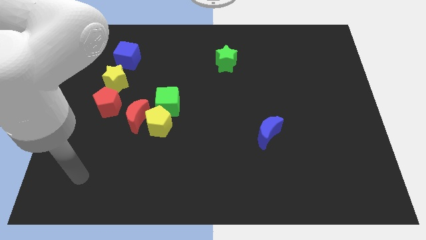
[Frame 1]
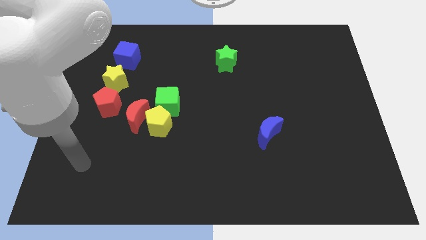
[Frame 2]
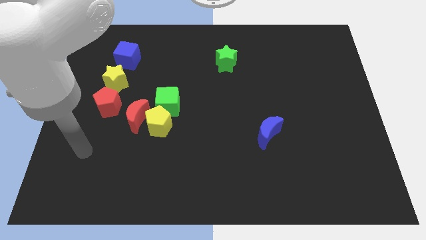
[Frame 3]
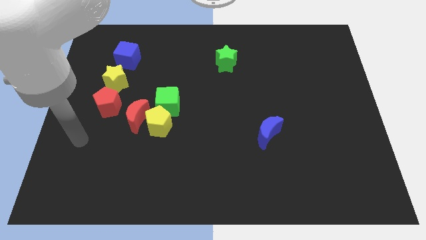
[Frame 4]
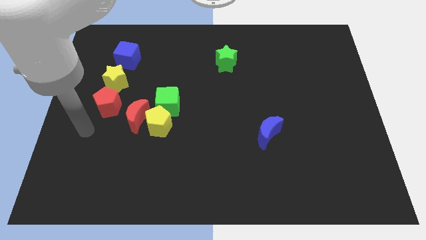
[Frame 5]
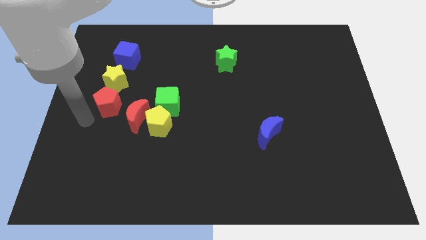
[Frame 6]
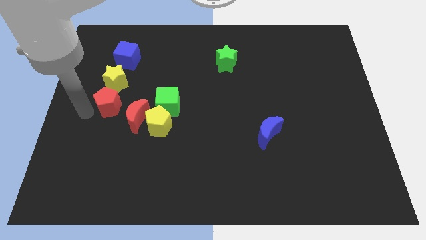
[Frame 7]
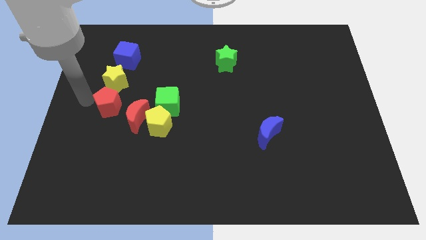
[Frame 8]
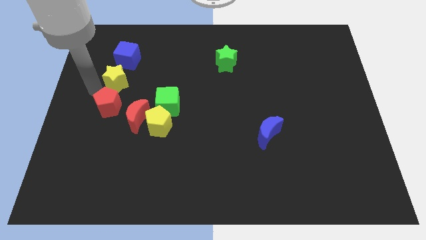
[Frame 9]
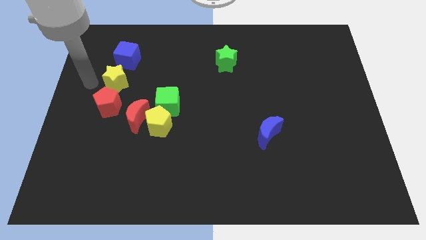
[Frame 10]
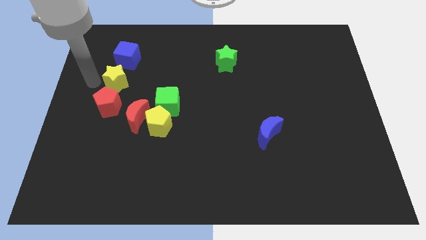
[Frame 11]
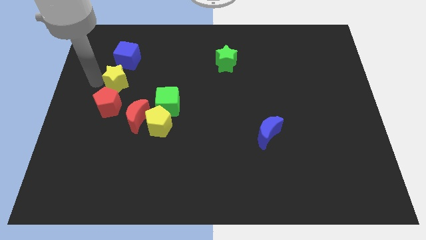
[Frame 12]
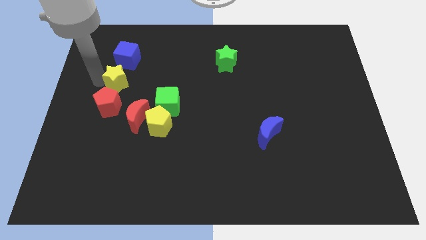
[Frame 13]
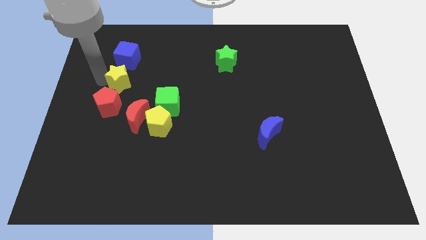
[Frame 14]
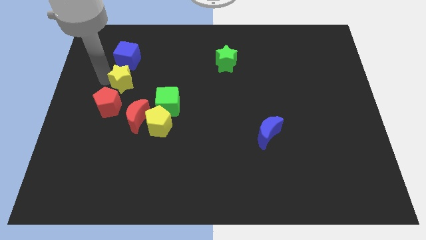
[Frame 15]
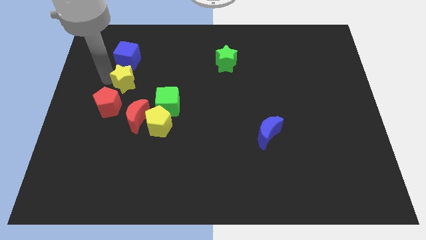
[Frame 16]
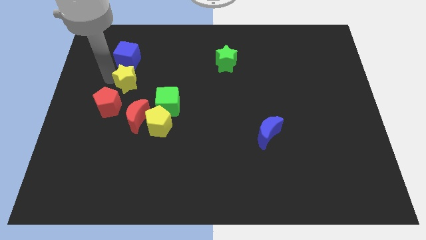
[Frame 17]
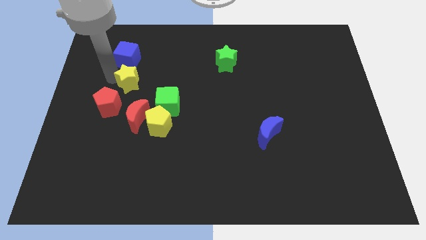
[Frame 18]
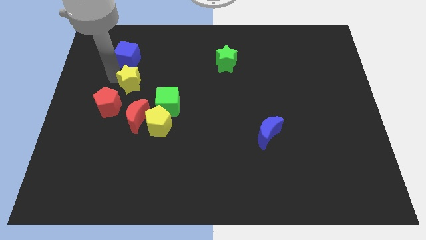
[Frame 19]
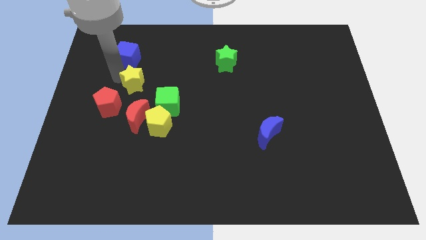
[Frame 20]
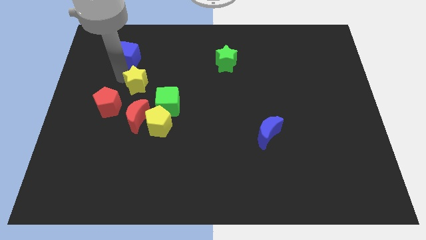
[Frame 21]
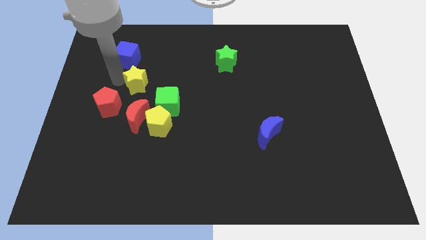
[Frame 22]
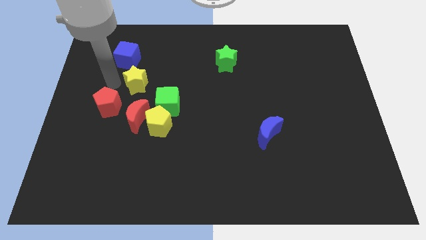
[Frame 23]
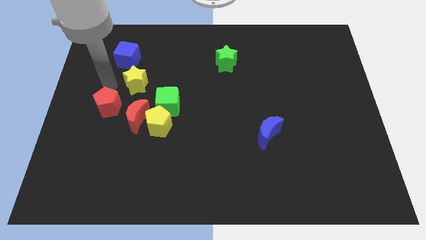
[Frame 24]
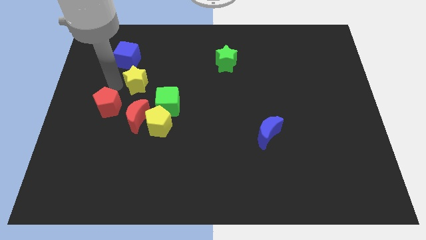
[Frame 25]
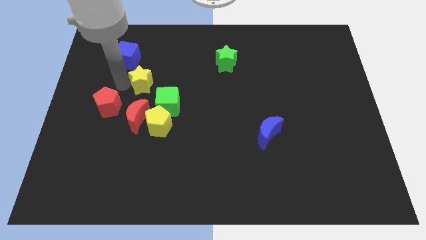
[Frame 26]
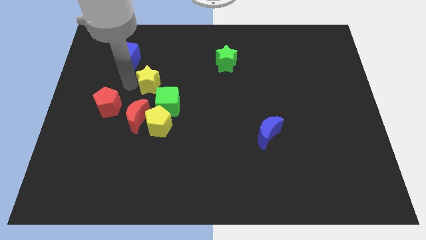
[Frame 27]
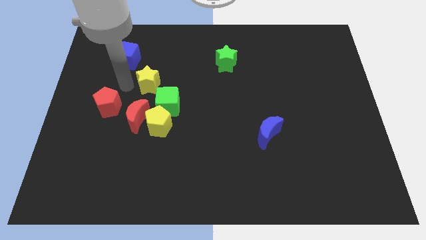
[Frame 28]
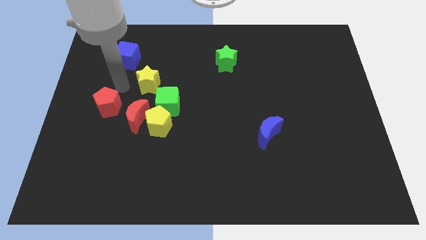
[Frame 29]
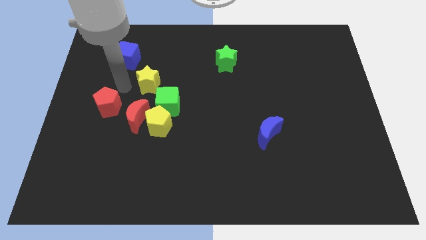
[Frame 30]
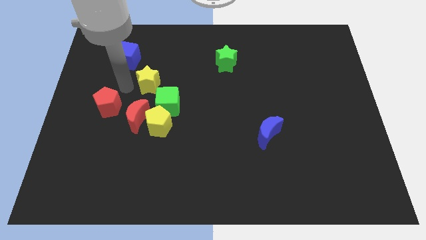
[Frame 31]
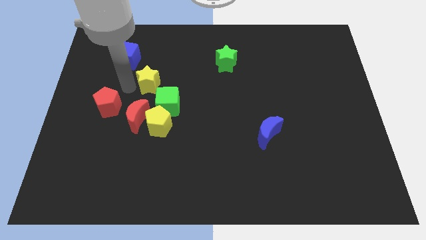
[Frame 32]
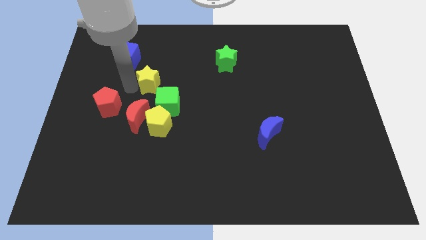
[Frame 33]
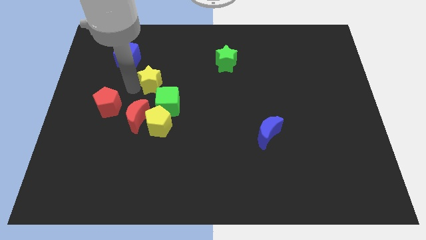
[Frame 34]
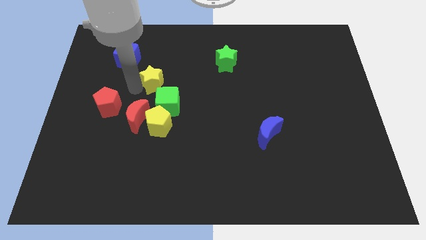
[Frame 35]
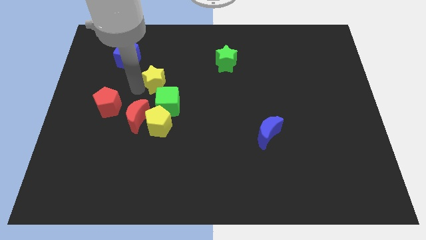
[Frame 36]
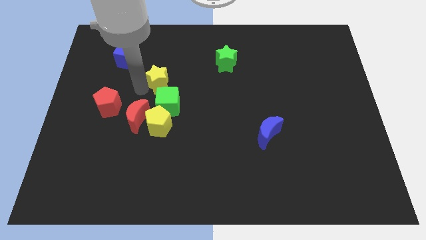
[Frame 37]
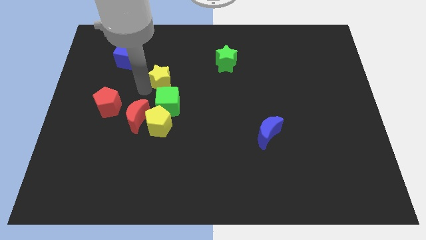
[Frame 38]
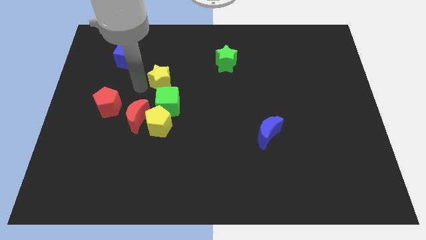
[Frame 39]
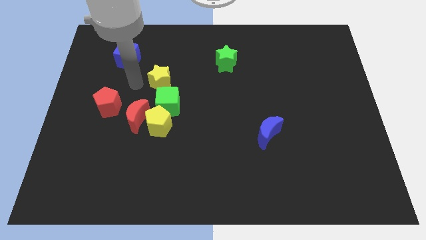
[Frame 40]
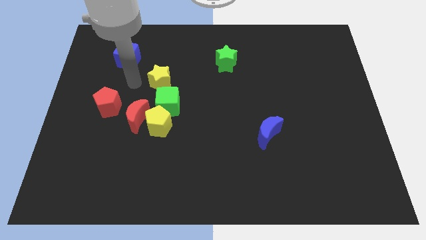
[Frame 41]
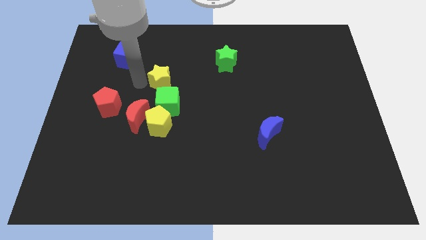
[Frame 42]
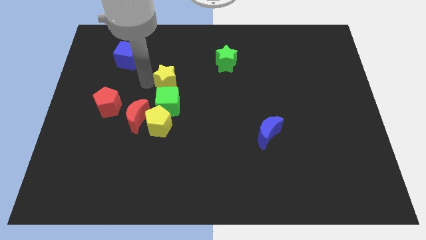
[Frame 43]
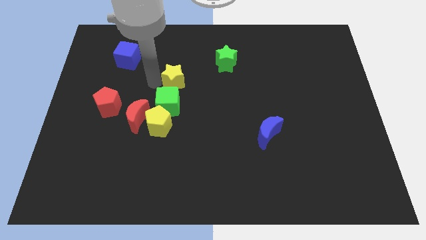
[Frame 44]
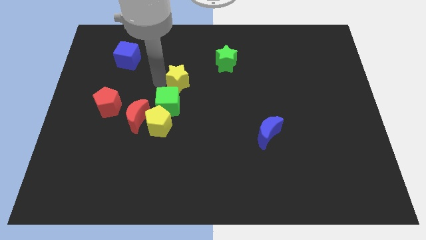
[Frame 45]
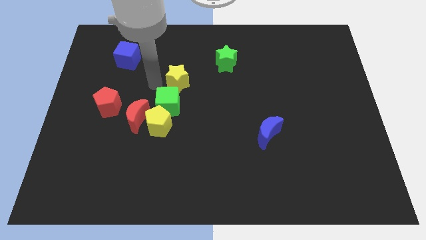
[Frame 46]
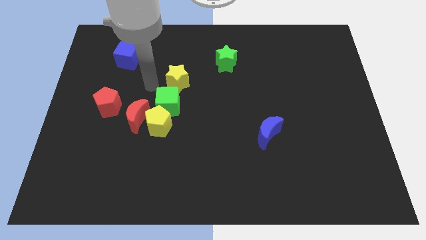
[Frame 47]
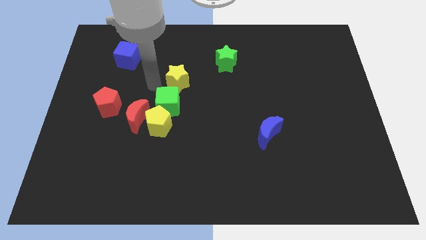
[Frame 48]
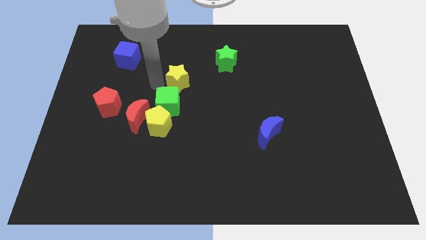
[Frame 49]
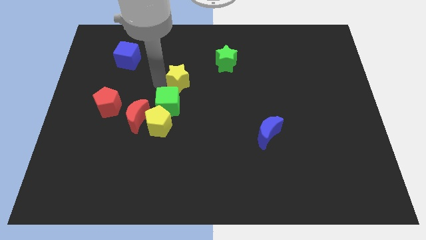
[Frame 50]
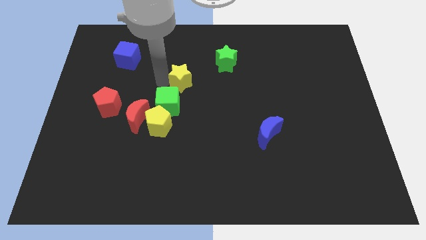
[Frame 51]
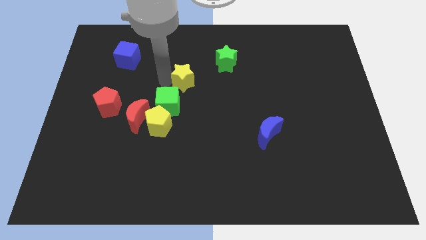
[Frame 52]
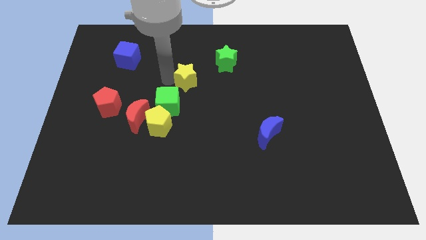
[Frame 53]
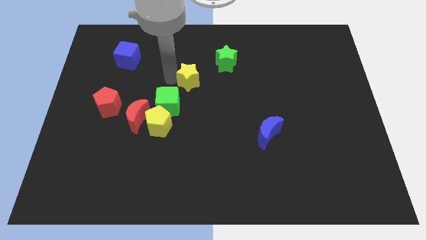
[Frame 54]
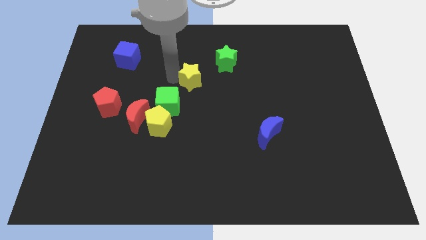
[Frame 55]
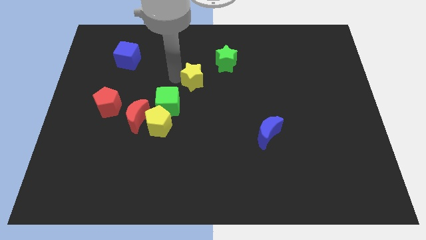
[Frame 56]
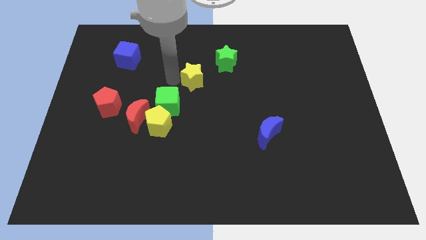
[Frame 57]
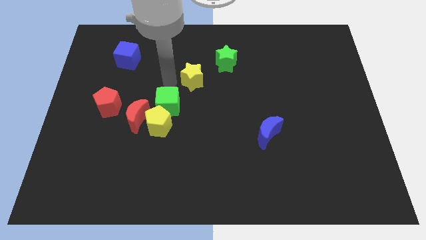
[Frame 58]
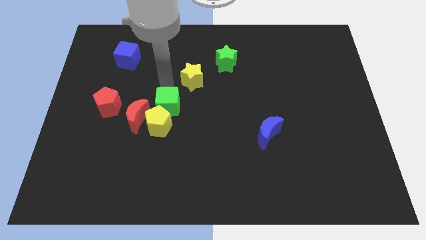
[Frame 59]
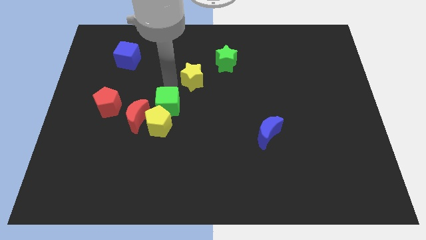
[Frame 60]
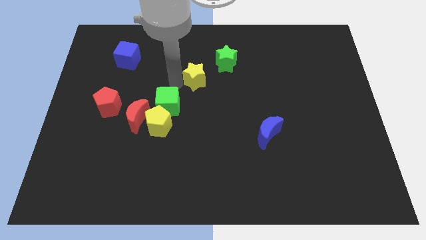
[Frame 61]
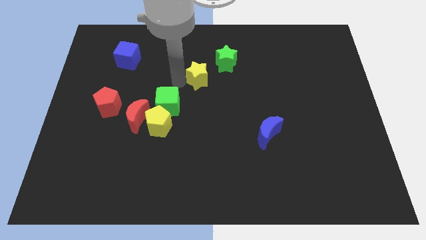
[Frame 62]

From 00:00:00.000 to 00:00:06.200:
push the yellow star to the right

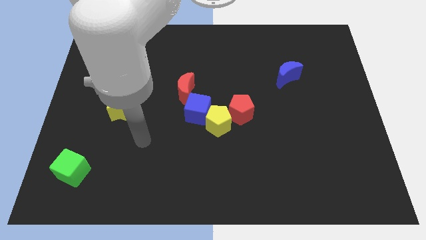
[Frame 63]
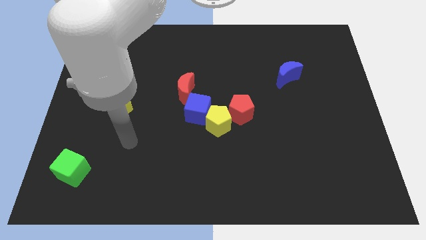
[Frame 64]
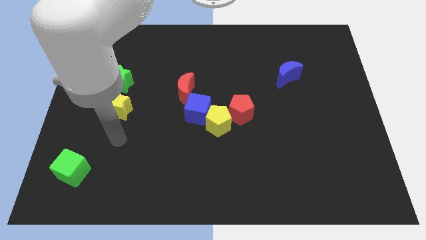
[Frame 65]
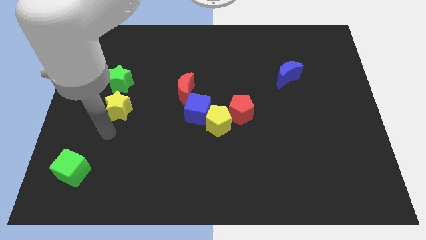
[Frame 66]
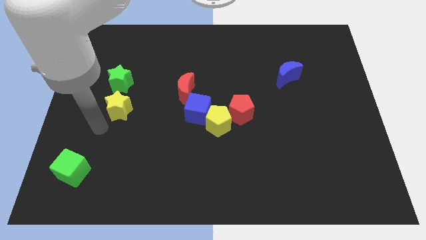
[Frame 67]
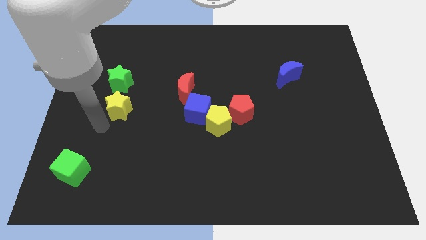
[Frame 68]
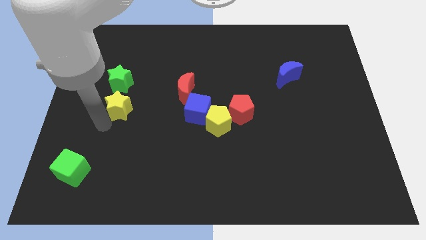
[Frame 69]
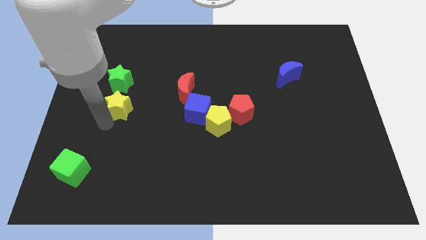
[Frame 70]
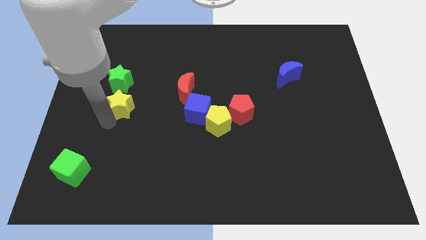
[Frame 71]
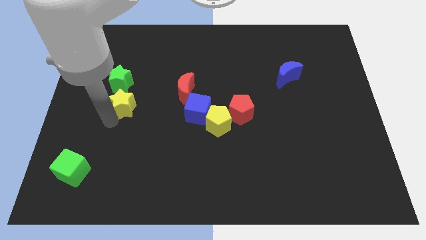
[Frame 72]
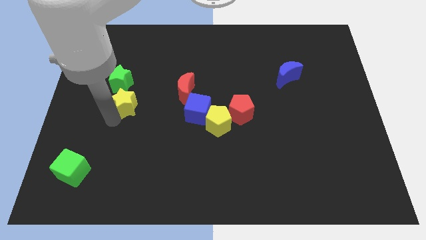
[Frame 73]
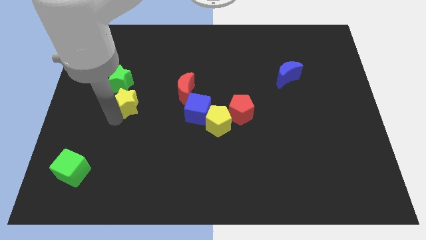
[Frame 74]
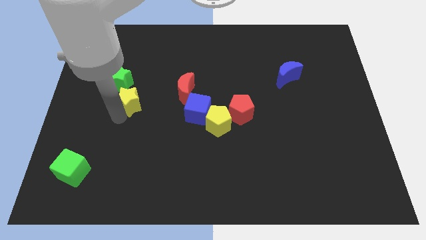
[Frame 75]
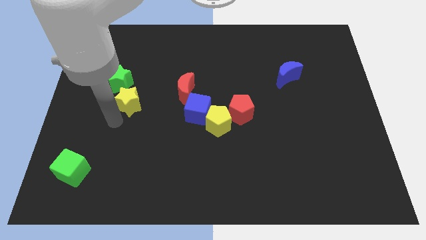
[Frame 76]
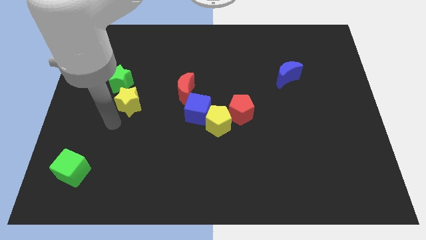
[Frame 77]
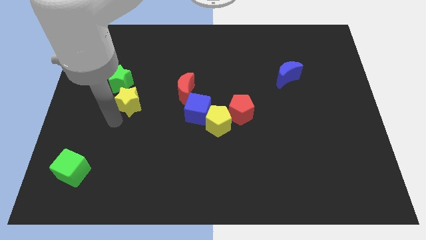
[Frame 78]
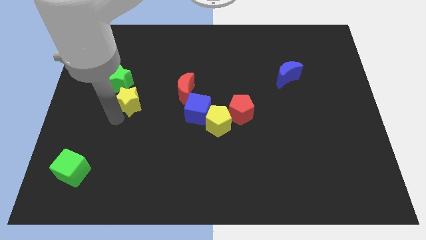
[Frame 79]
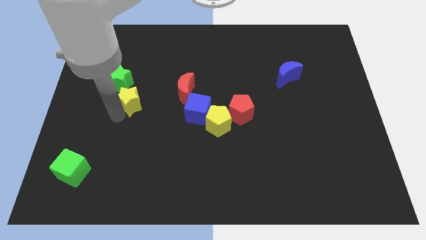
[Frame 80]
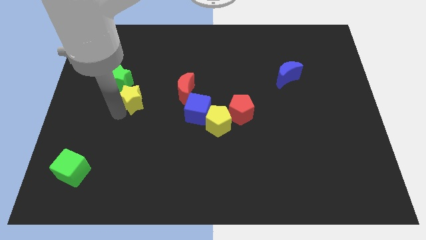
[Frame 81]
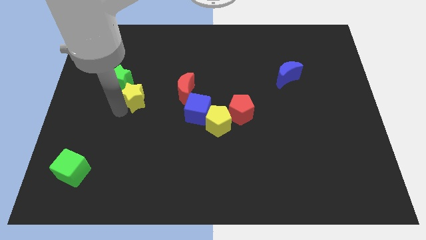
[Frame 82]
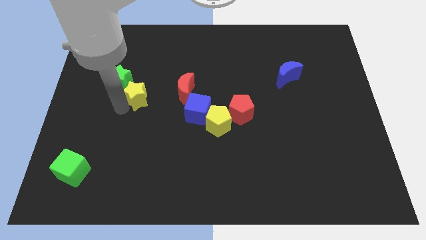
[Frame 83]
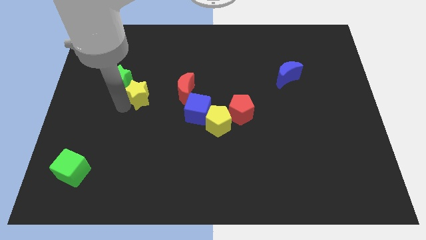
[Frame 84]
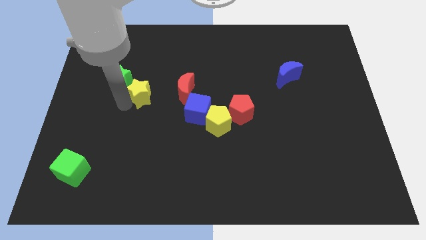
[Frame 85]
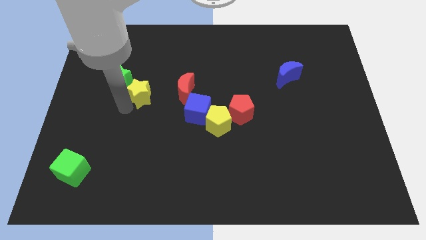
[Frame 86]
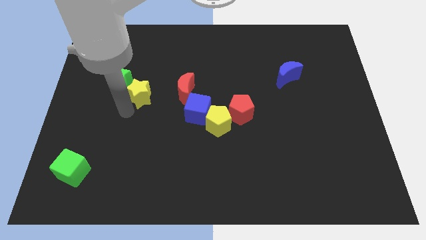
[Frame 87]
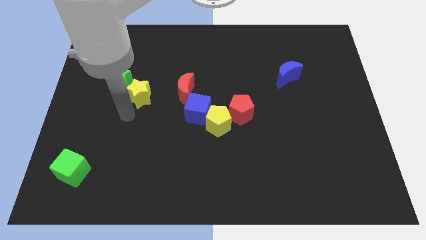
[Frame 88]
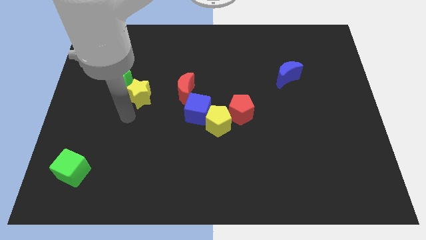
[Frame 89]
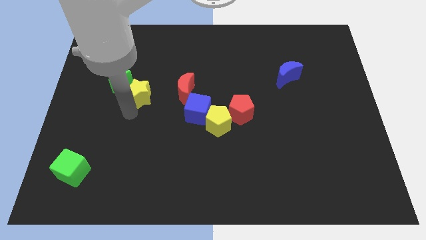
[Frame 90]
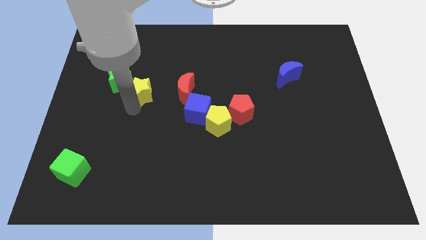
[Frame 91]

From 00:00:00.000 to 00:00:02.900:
slide the yellow star diagonally upwards and right a little
